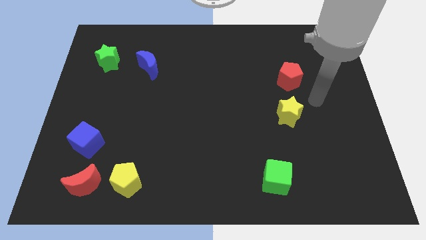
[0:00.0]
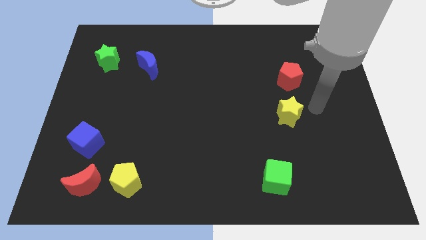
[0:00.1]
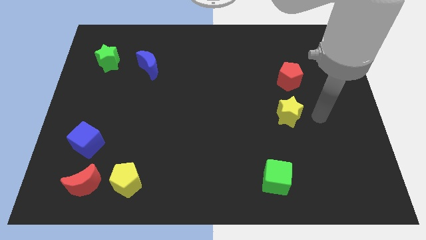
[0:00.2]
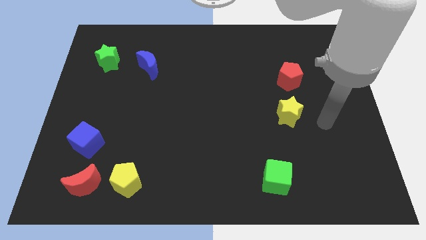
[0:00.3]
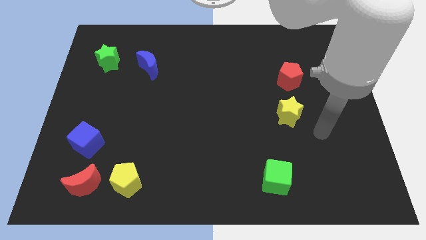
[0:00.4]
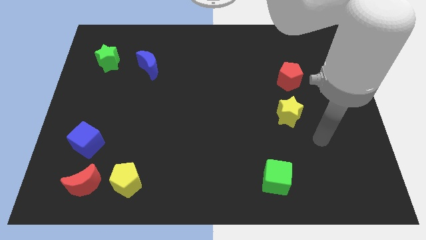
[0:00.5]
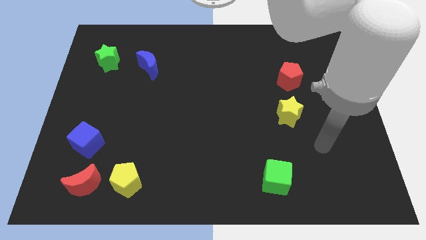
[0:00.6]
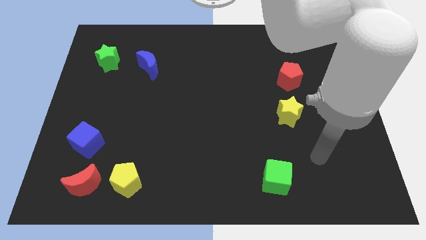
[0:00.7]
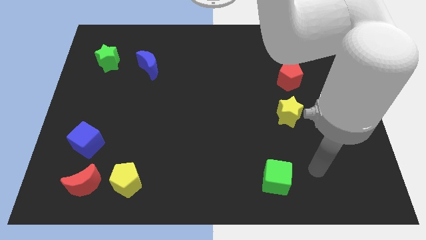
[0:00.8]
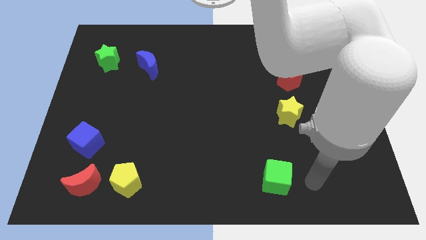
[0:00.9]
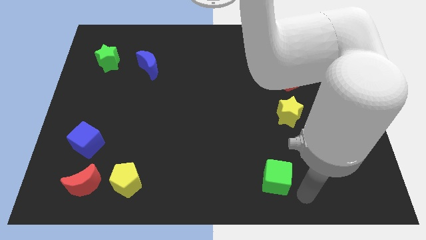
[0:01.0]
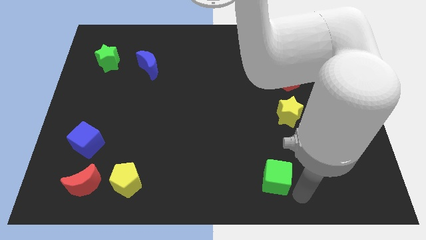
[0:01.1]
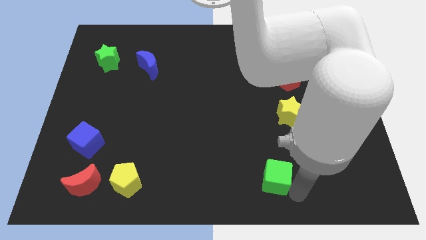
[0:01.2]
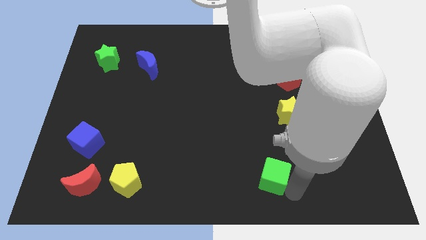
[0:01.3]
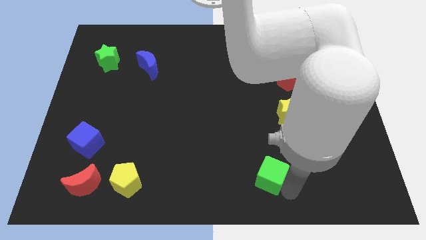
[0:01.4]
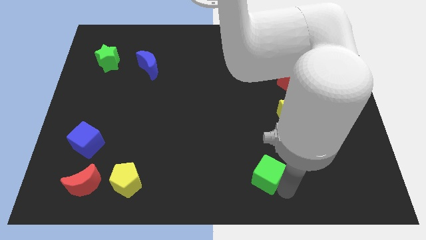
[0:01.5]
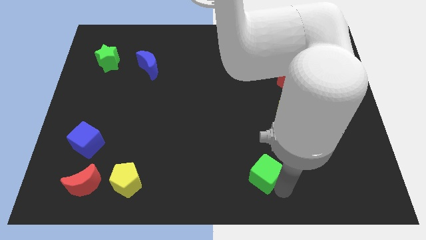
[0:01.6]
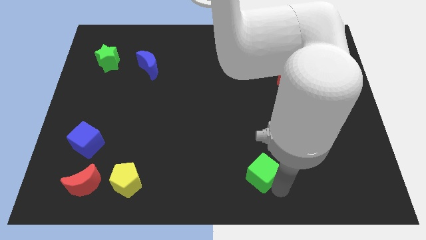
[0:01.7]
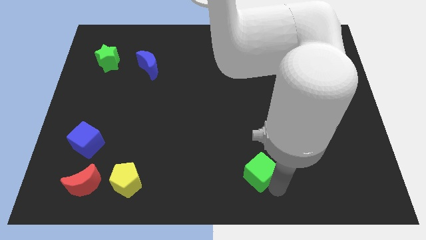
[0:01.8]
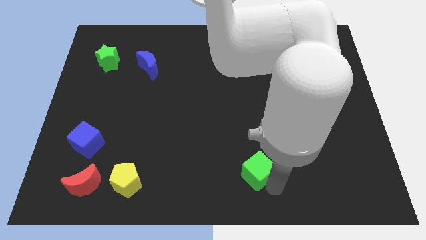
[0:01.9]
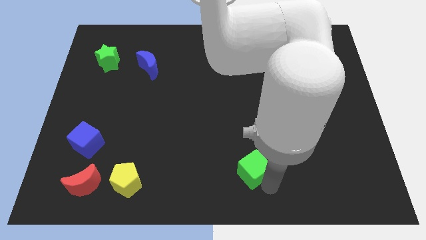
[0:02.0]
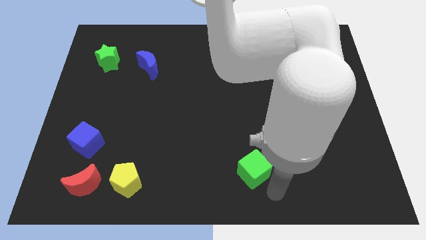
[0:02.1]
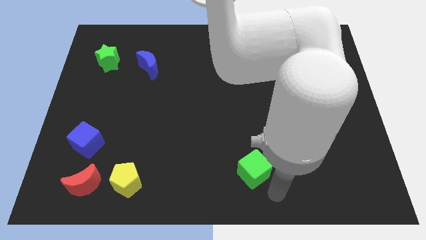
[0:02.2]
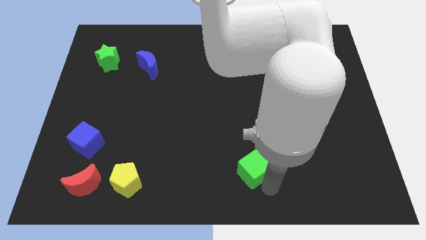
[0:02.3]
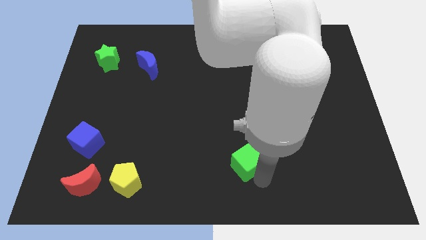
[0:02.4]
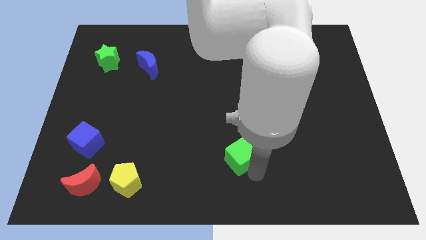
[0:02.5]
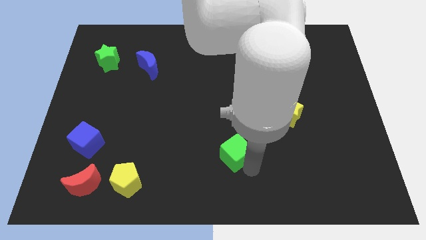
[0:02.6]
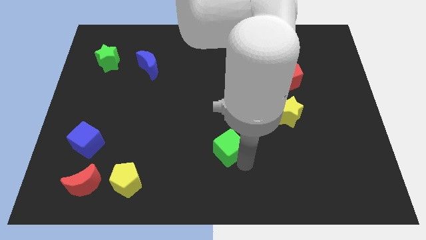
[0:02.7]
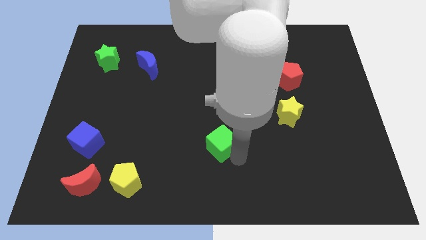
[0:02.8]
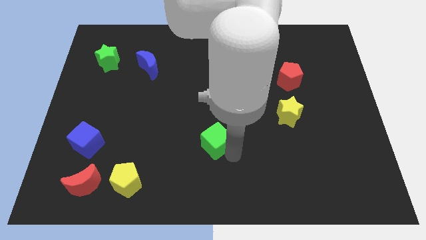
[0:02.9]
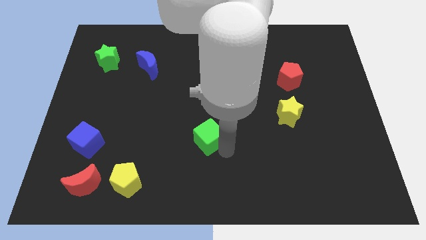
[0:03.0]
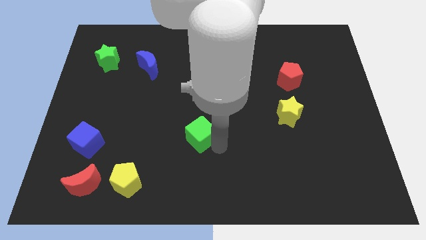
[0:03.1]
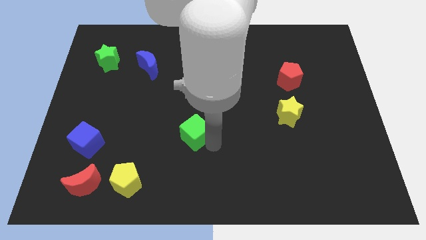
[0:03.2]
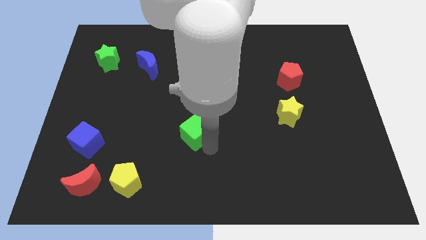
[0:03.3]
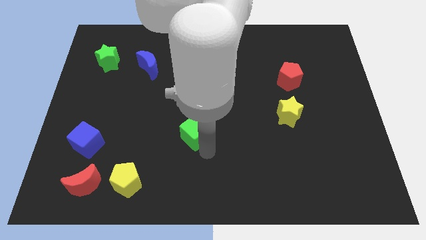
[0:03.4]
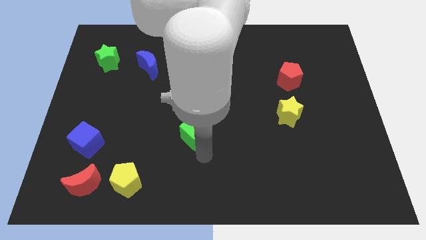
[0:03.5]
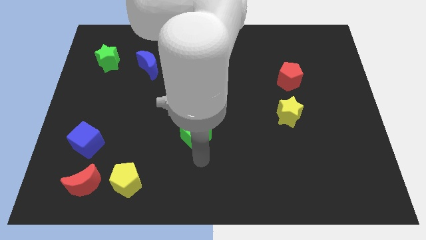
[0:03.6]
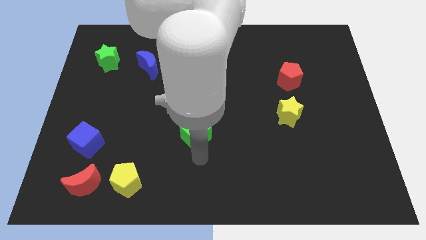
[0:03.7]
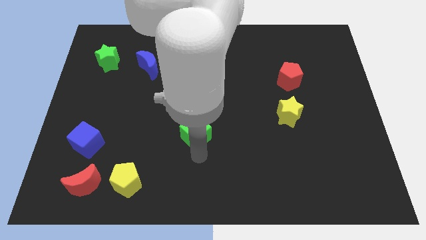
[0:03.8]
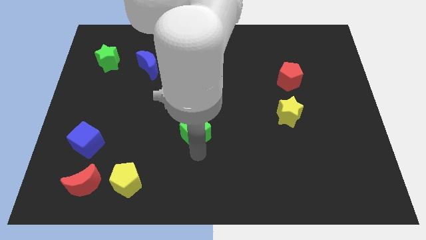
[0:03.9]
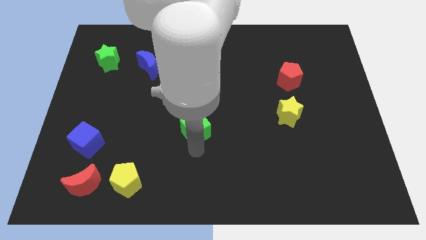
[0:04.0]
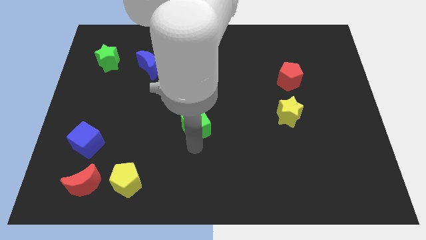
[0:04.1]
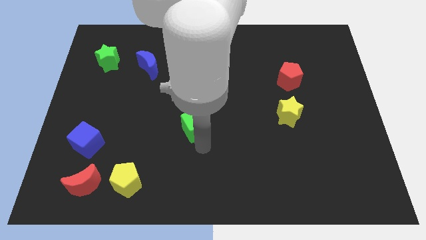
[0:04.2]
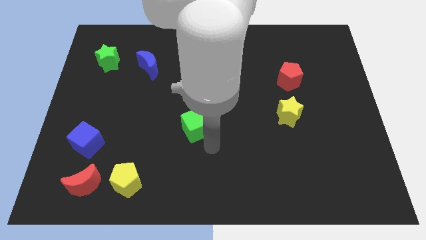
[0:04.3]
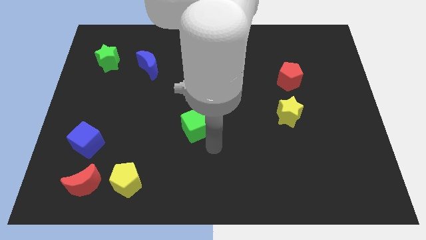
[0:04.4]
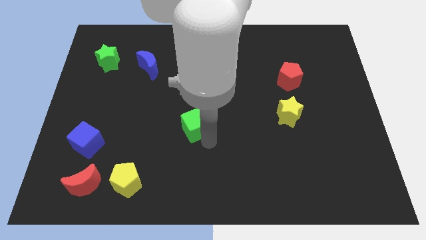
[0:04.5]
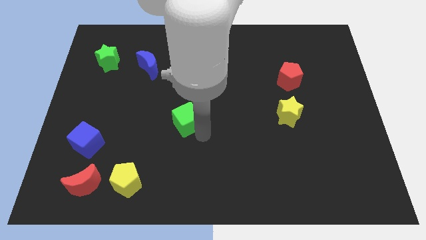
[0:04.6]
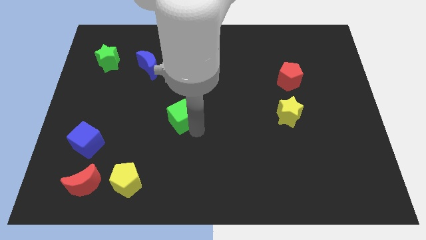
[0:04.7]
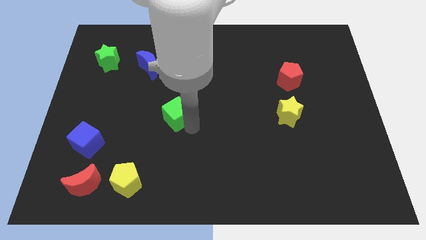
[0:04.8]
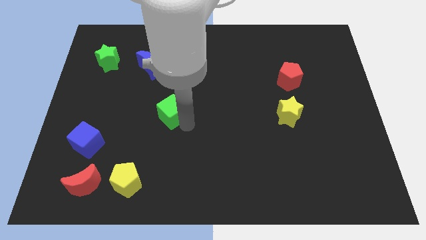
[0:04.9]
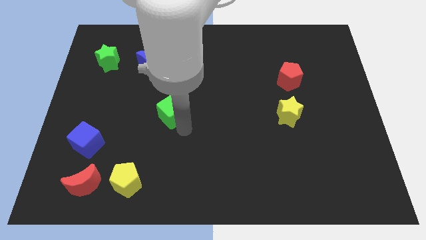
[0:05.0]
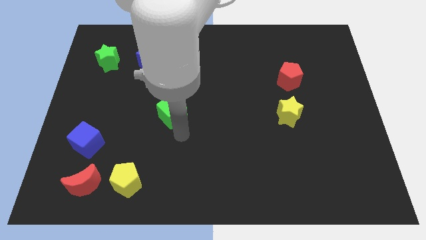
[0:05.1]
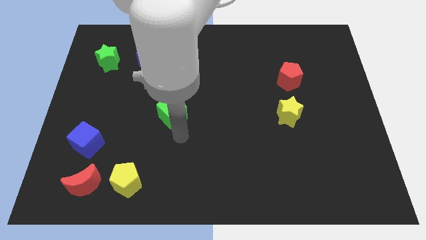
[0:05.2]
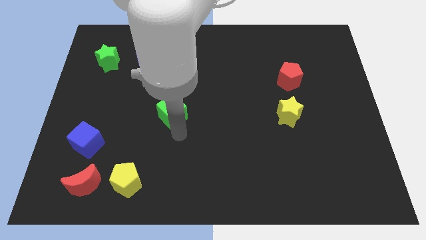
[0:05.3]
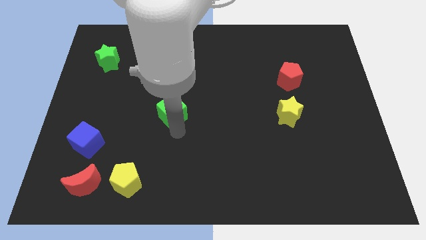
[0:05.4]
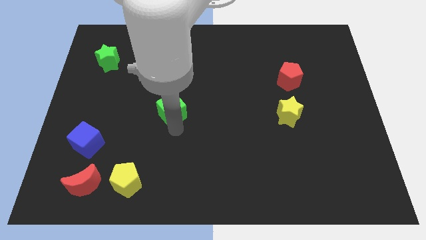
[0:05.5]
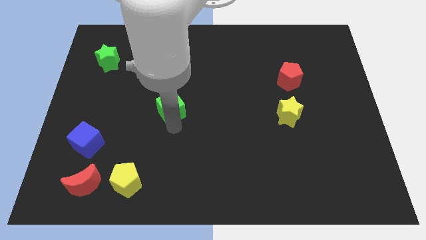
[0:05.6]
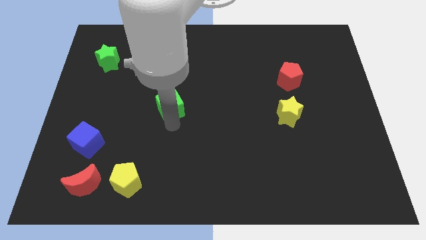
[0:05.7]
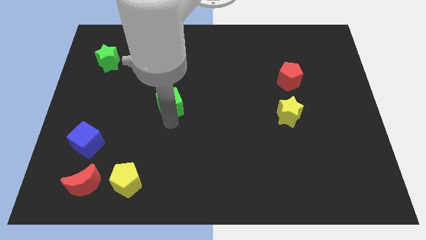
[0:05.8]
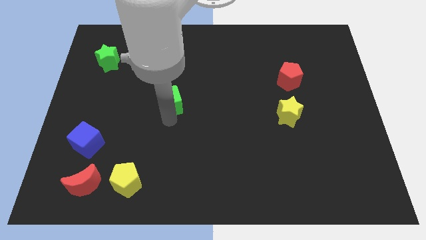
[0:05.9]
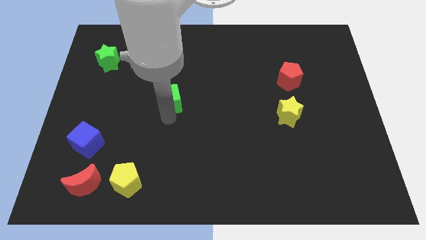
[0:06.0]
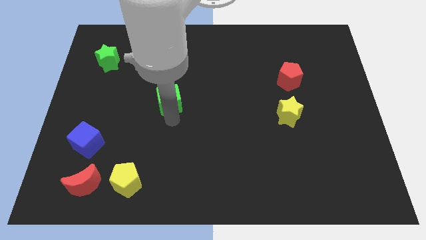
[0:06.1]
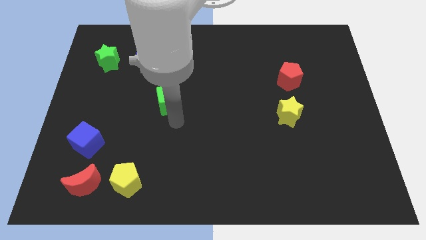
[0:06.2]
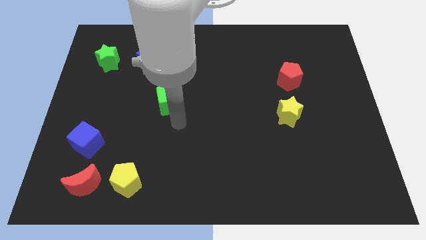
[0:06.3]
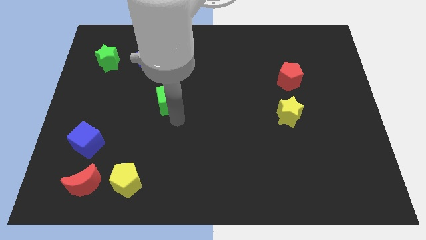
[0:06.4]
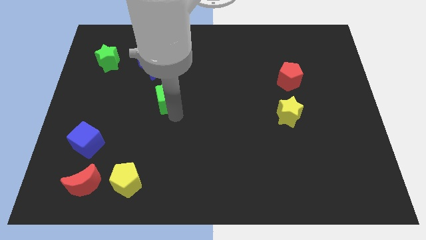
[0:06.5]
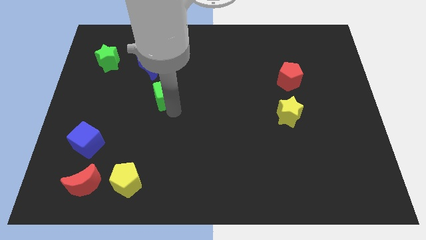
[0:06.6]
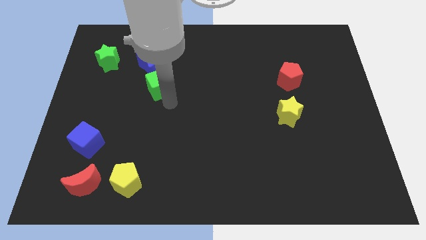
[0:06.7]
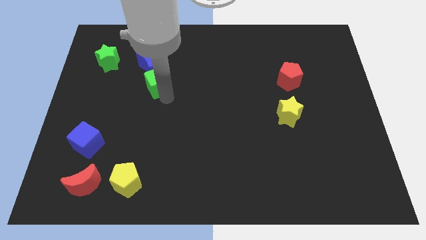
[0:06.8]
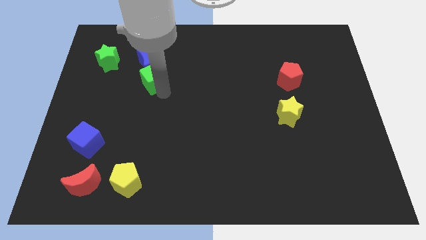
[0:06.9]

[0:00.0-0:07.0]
slide the green cube close to the blue moon

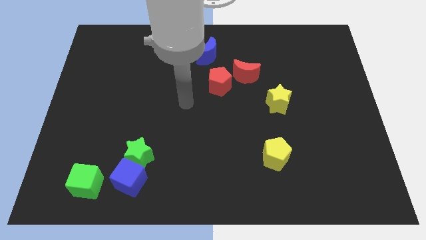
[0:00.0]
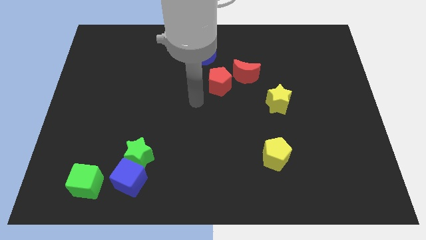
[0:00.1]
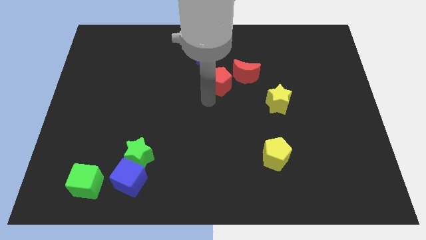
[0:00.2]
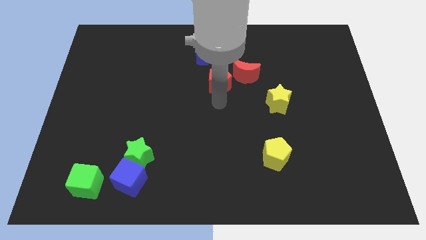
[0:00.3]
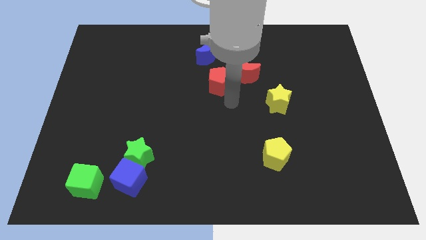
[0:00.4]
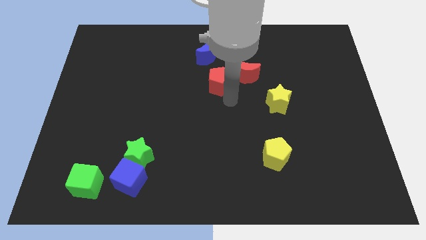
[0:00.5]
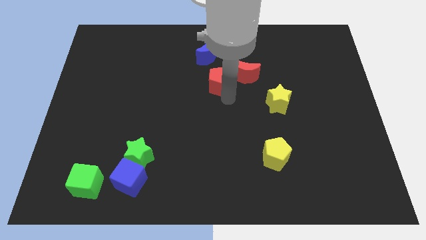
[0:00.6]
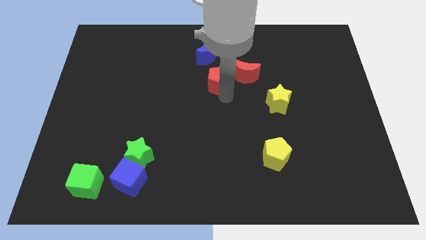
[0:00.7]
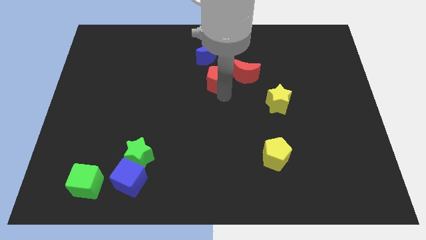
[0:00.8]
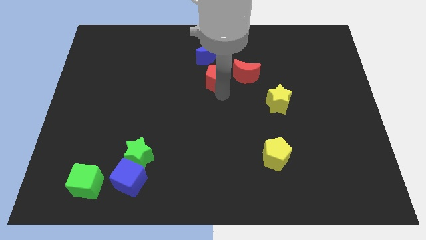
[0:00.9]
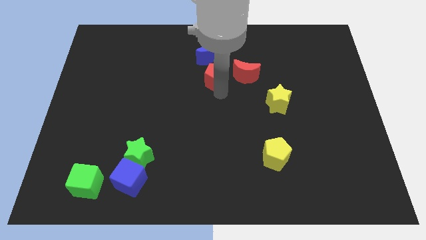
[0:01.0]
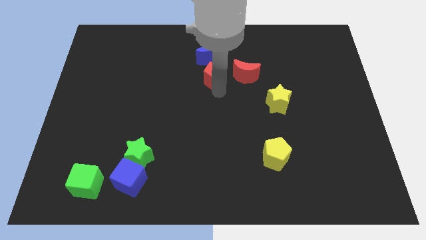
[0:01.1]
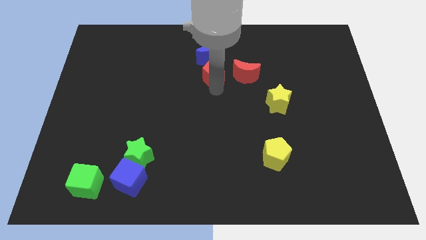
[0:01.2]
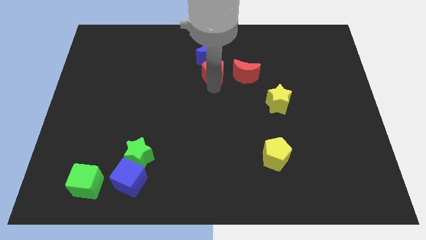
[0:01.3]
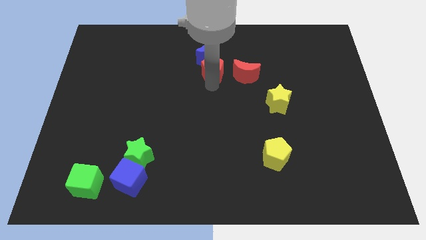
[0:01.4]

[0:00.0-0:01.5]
move the red pentagon close to the blue moon
